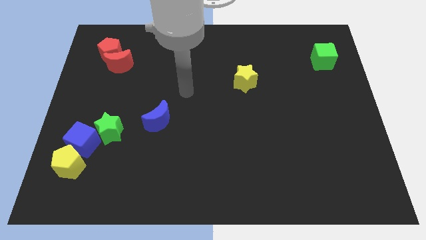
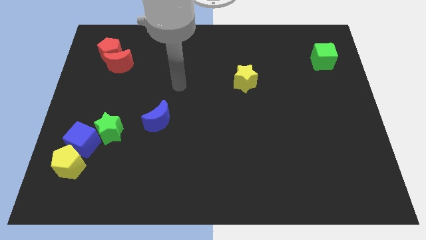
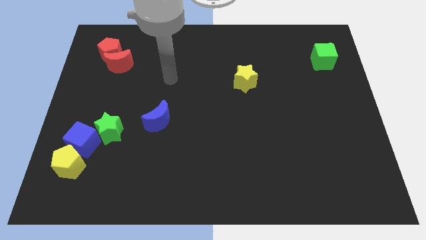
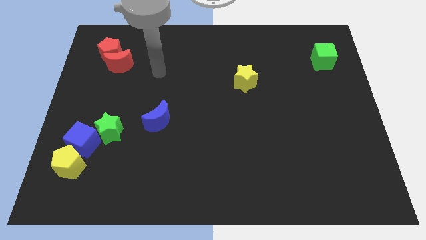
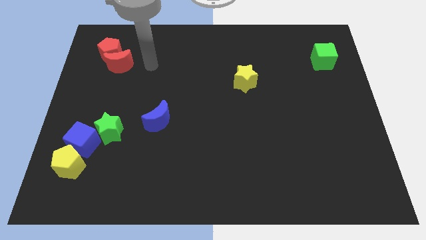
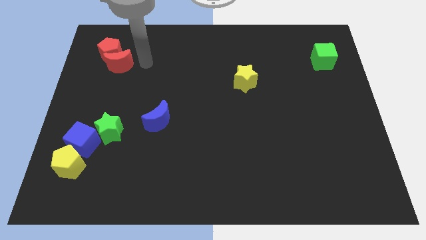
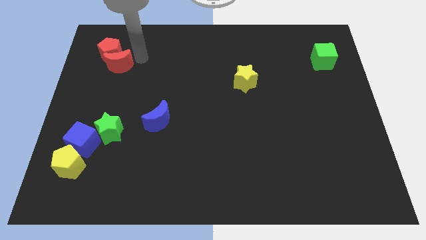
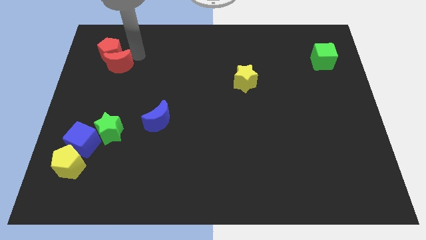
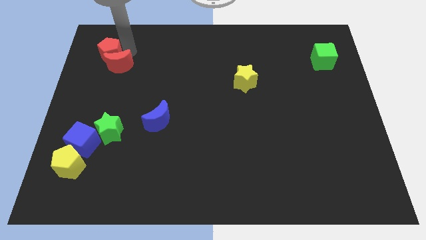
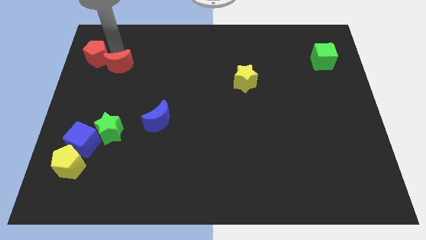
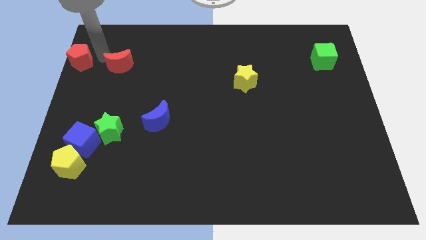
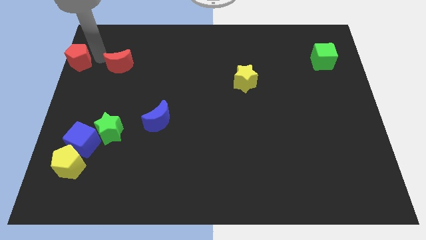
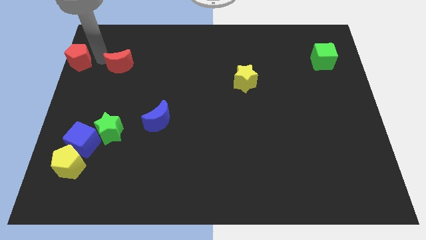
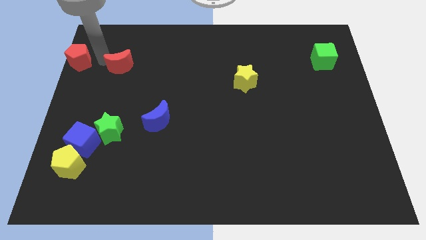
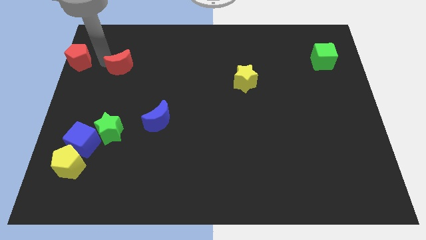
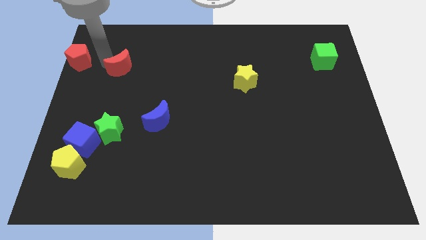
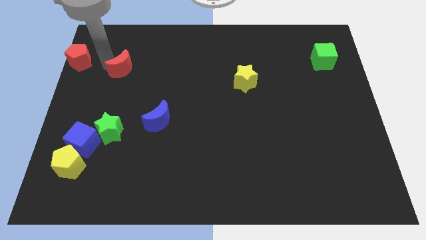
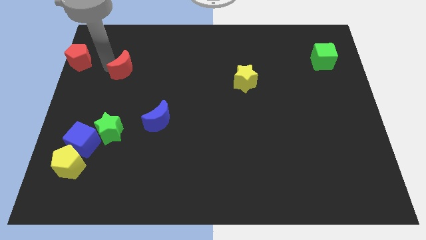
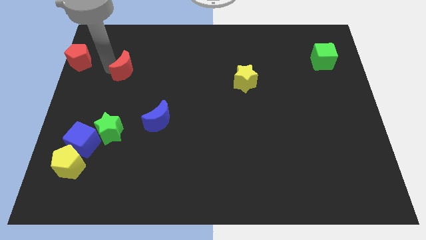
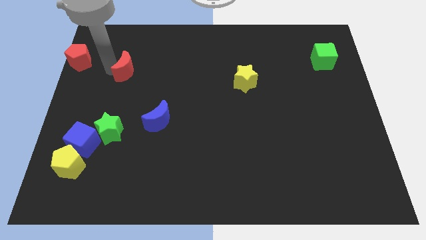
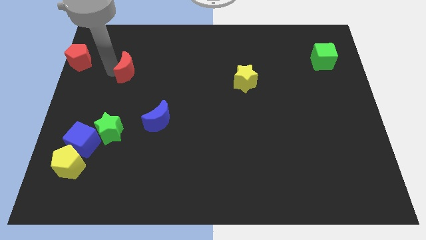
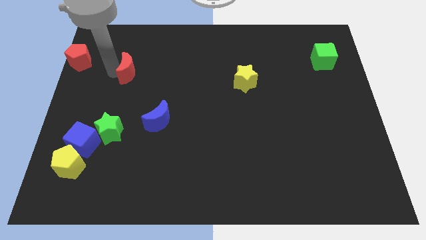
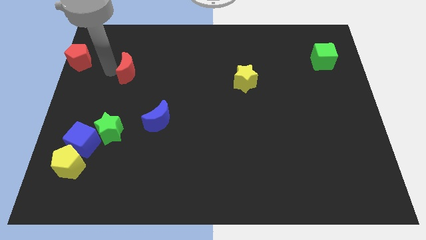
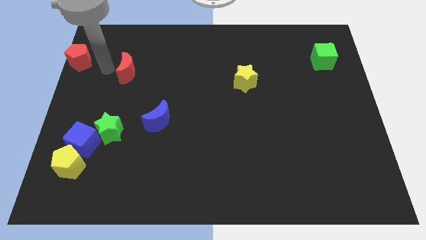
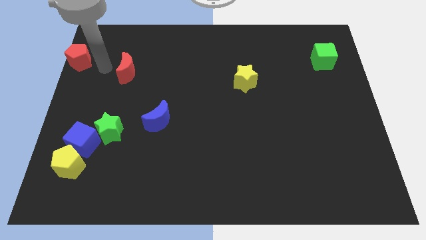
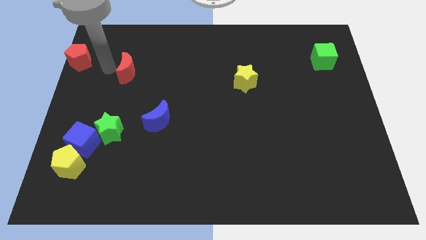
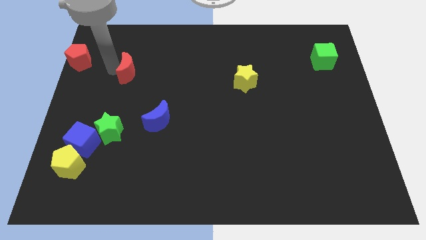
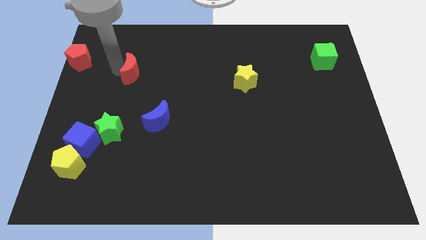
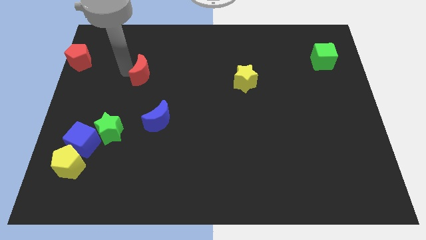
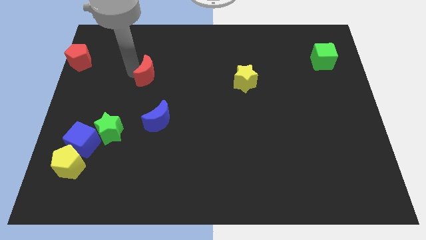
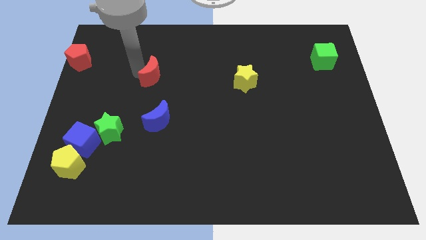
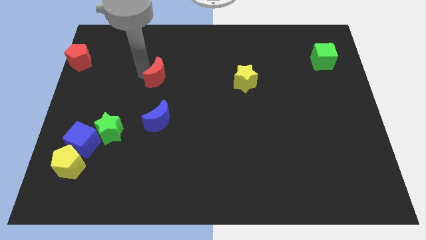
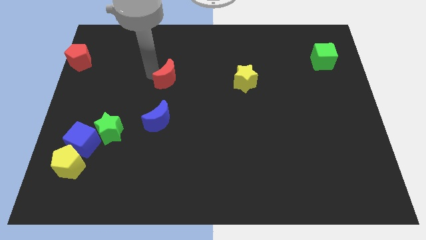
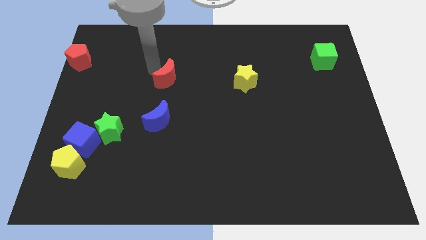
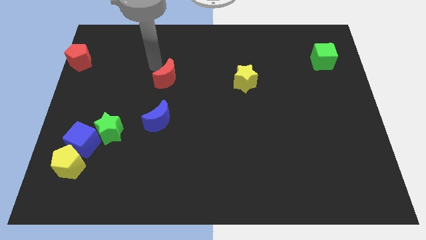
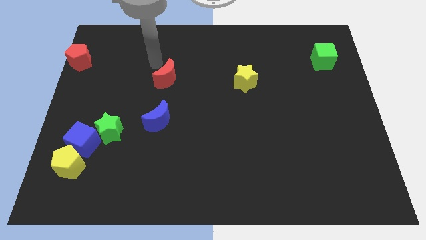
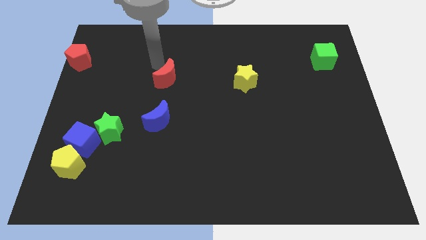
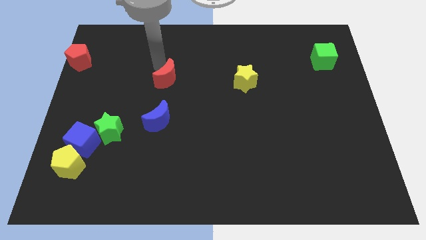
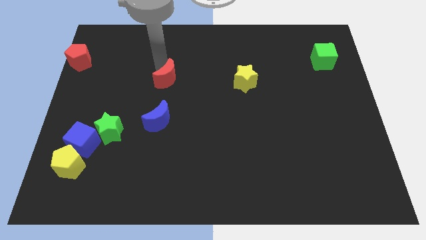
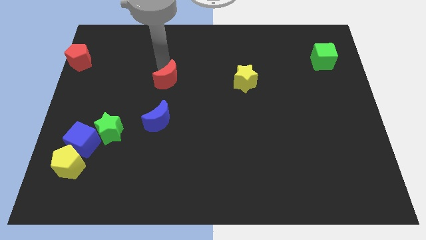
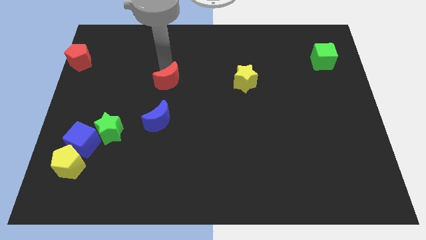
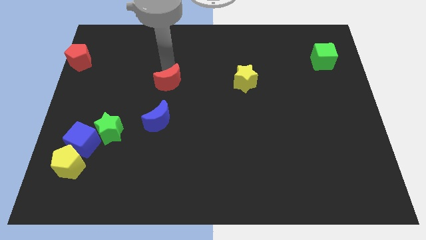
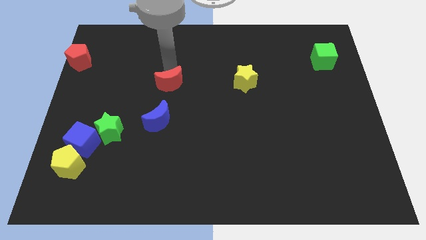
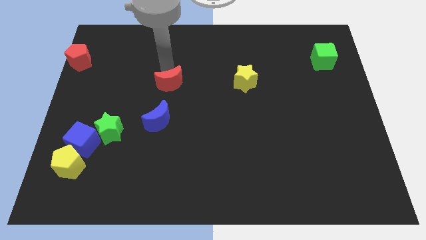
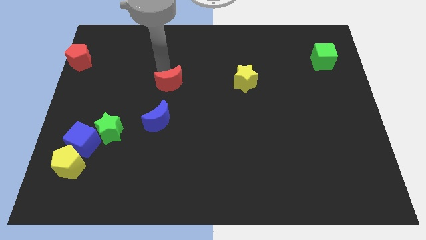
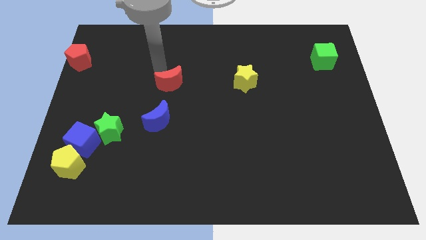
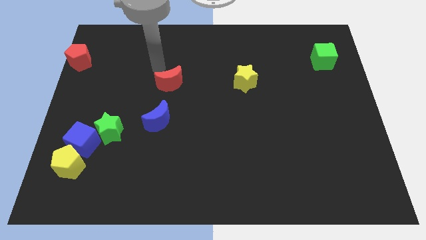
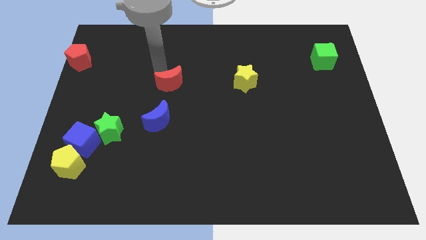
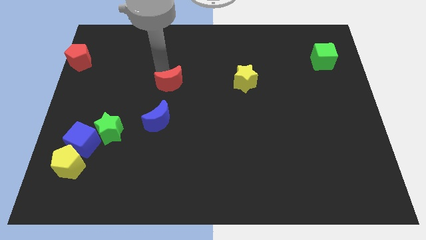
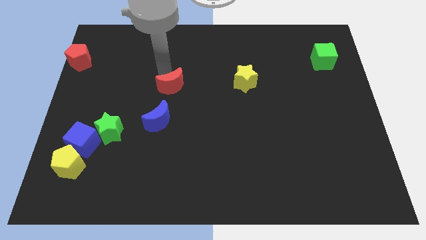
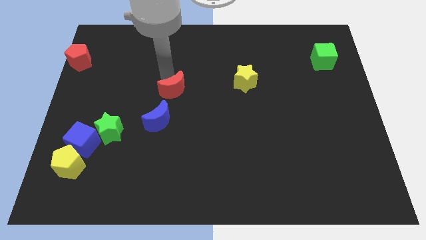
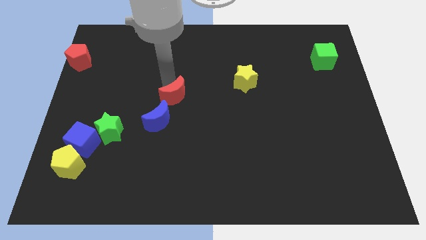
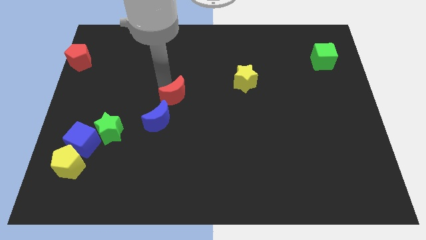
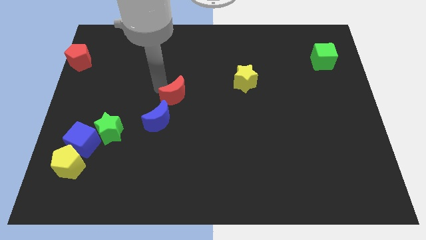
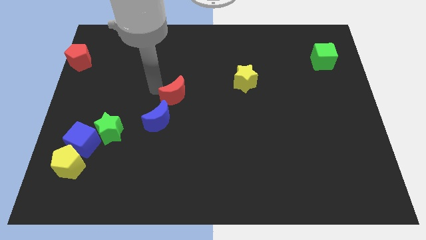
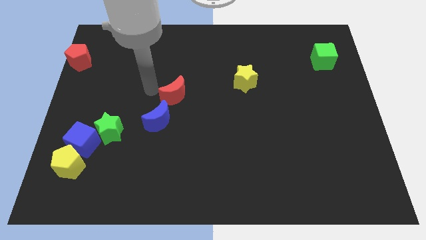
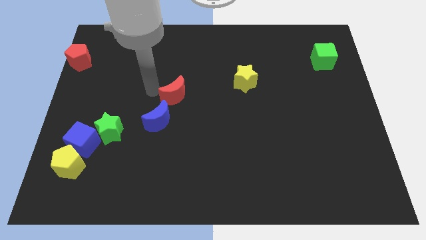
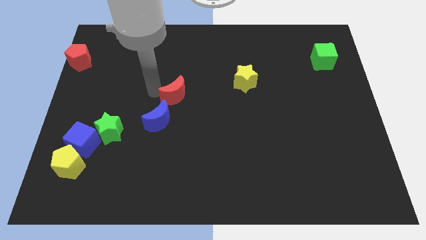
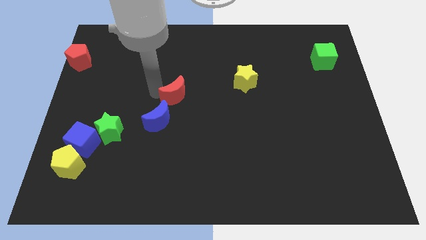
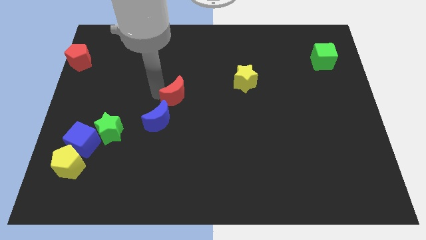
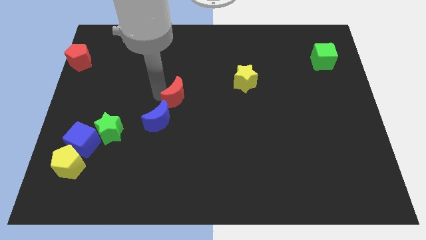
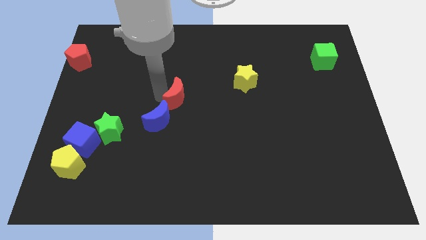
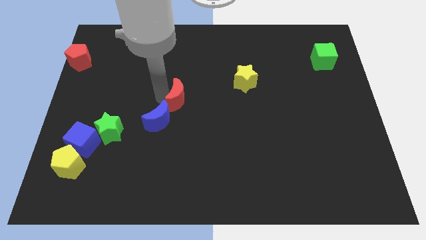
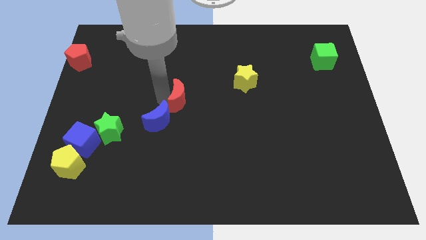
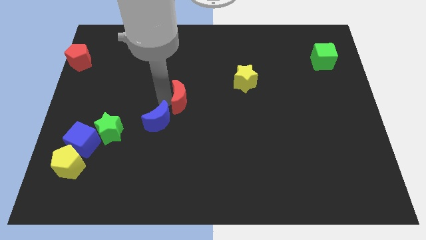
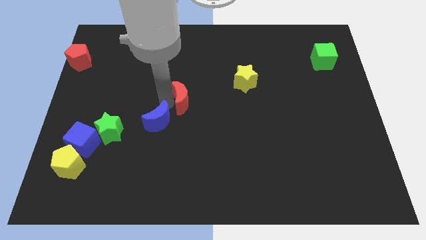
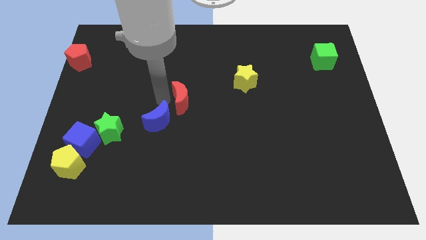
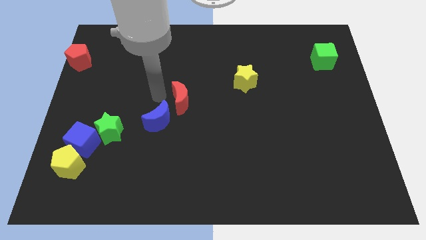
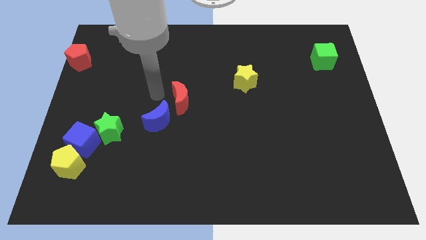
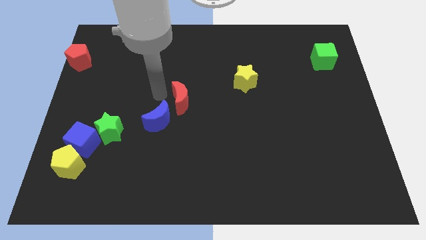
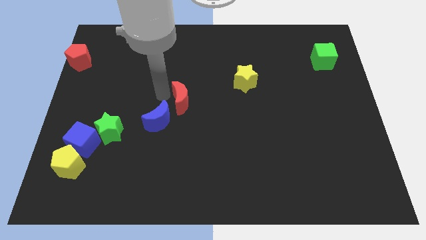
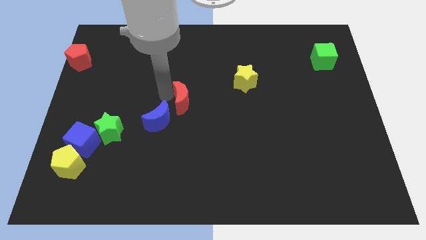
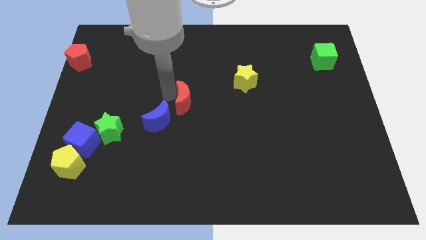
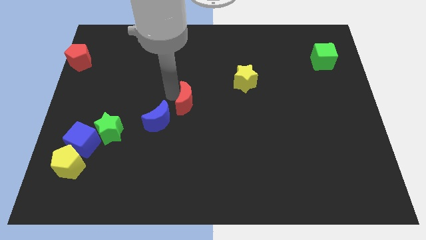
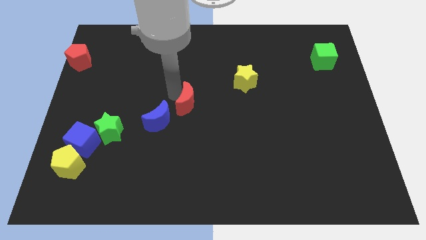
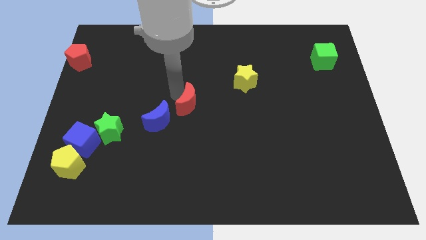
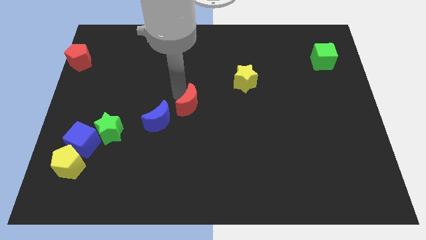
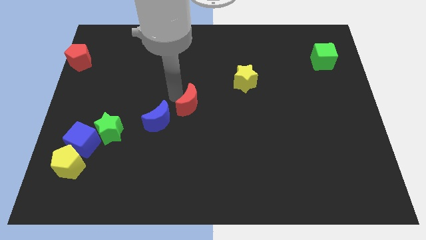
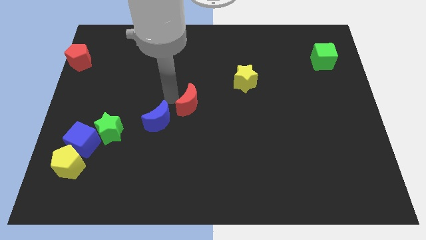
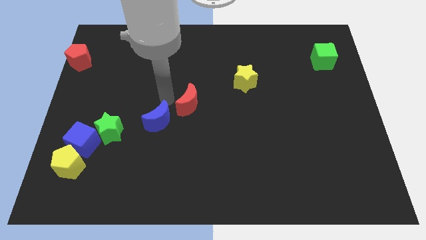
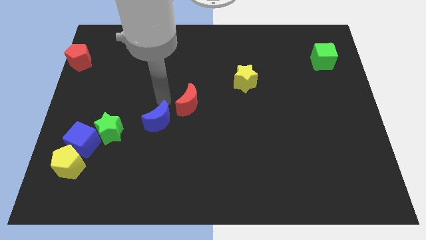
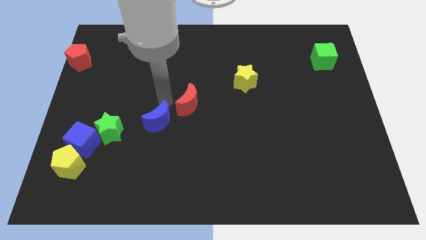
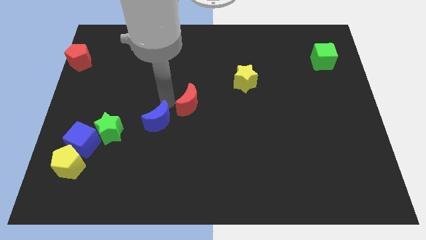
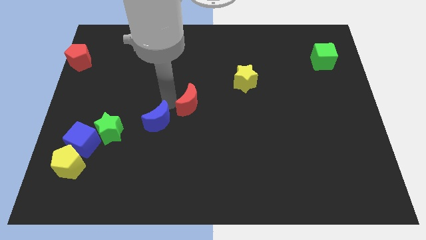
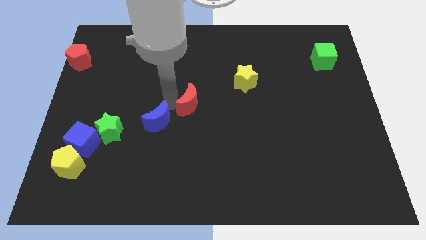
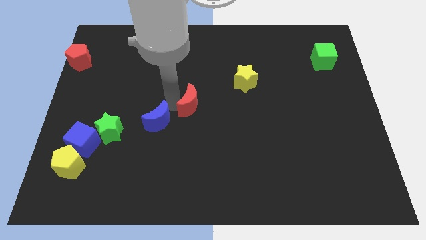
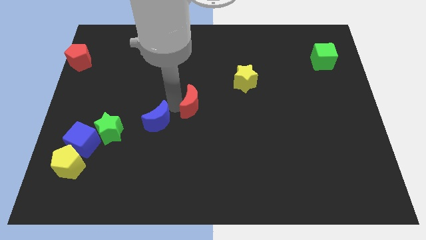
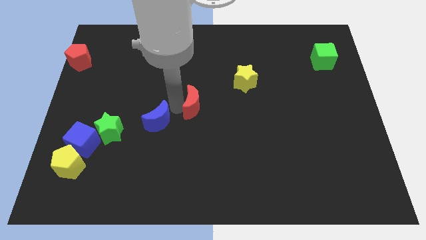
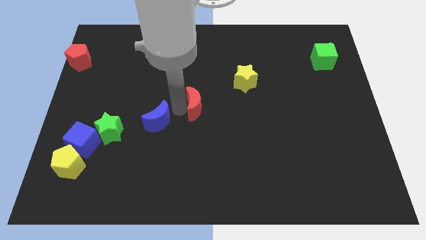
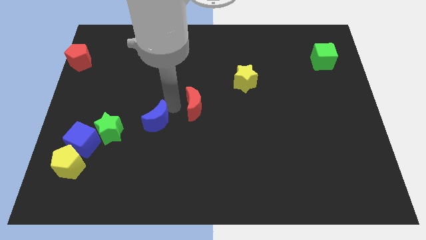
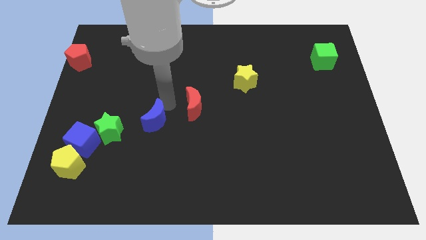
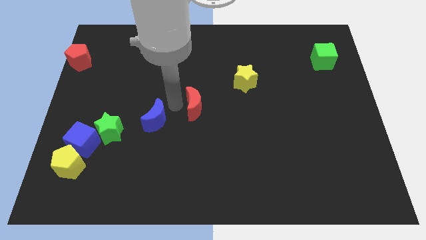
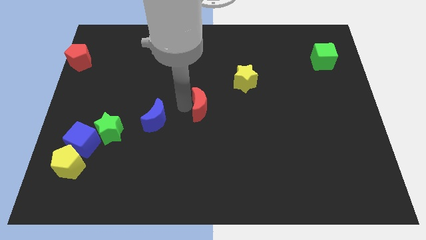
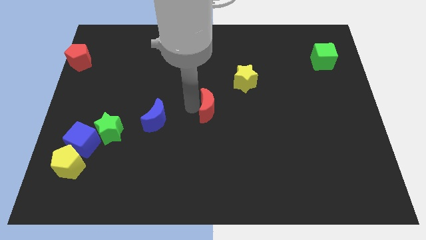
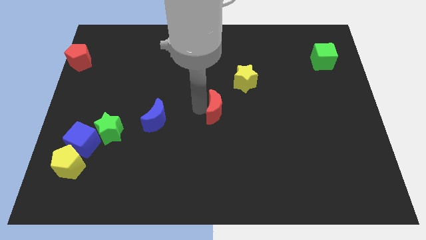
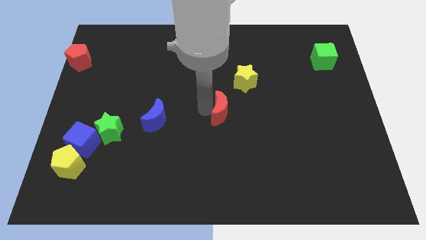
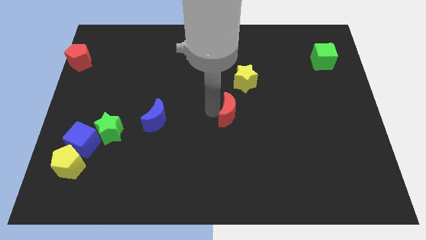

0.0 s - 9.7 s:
move the red moon below the yellow star
